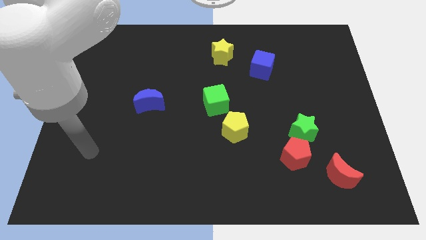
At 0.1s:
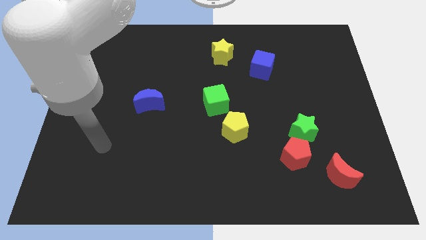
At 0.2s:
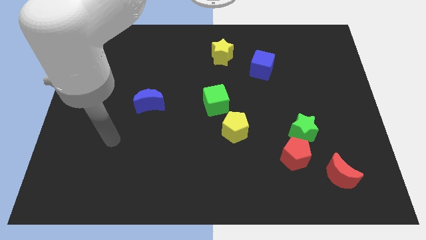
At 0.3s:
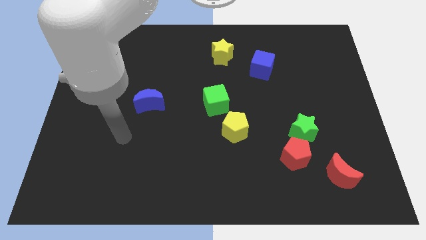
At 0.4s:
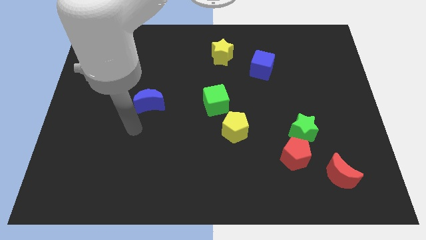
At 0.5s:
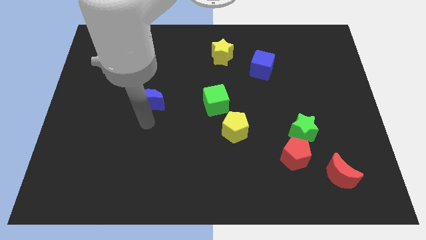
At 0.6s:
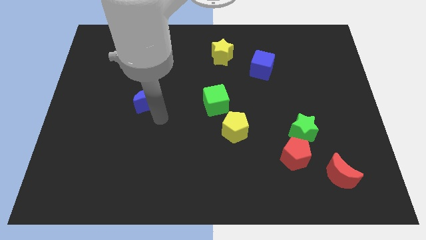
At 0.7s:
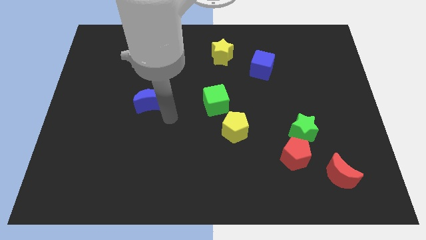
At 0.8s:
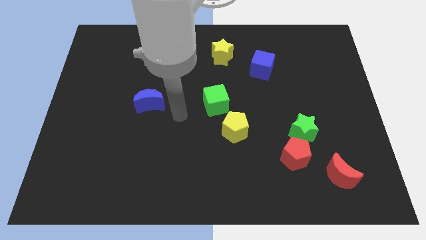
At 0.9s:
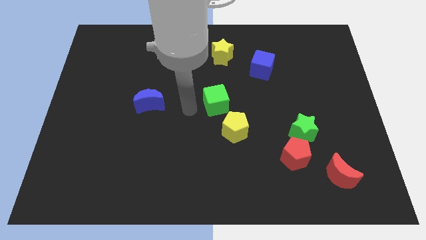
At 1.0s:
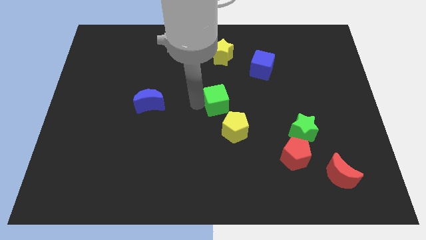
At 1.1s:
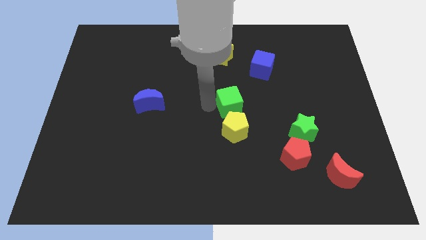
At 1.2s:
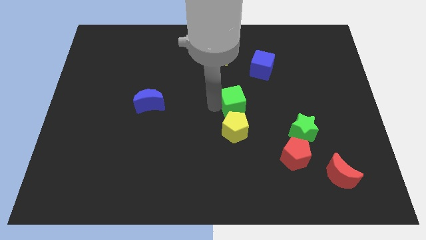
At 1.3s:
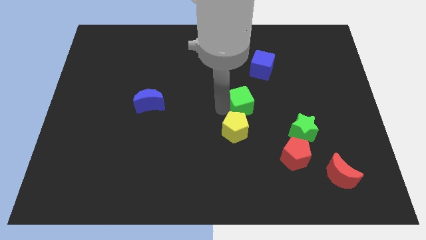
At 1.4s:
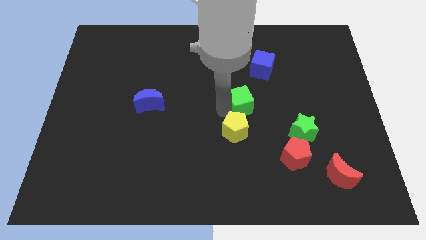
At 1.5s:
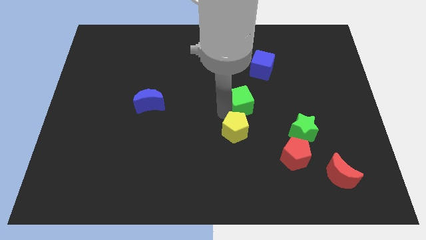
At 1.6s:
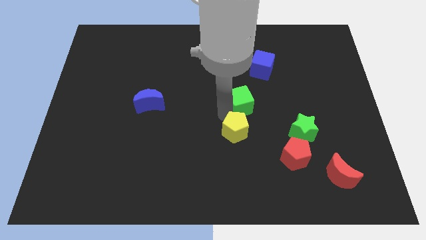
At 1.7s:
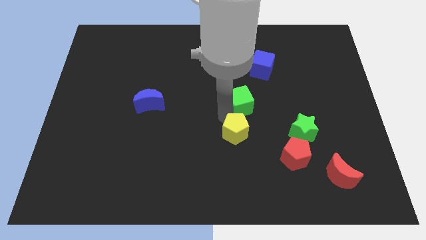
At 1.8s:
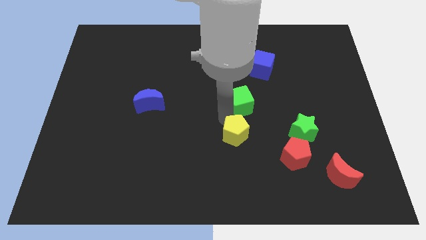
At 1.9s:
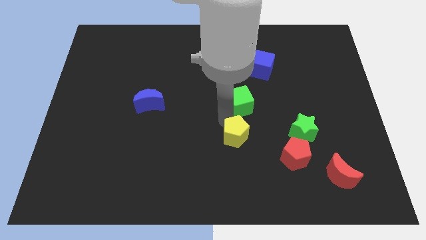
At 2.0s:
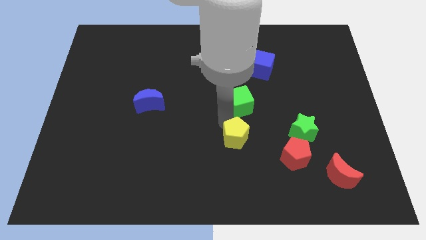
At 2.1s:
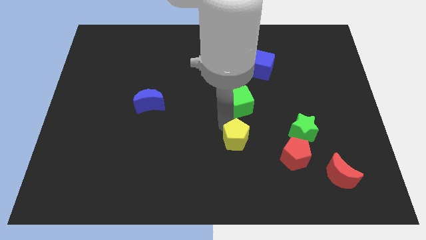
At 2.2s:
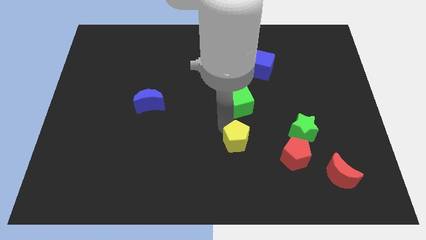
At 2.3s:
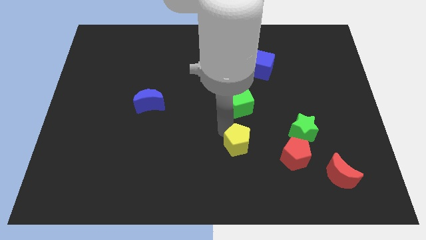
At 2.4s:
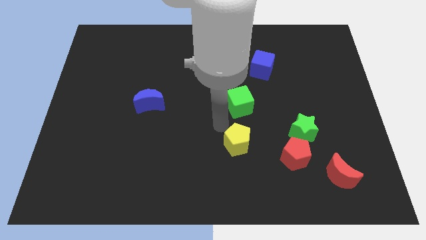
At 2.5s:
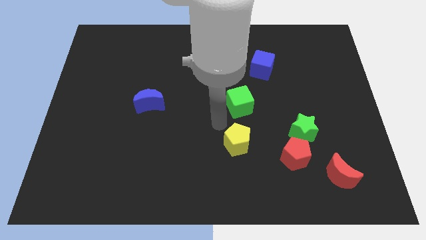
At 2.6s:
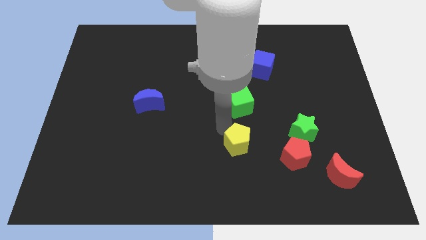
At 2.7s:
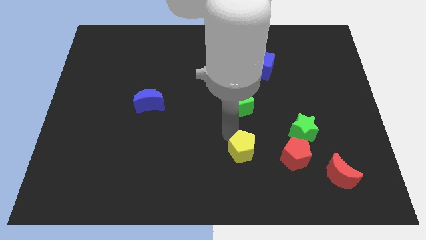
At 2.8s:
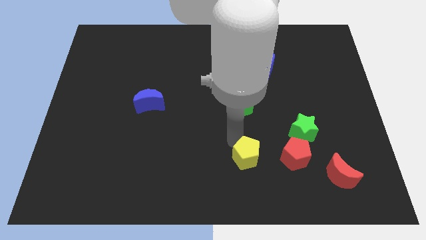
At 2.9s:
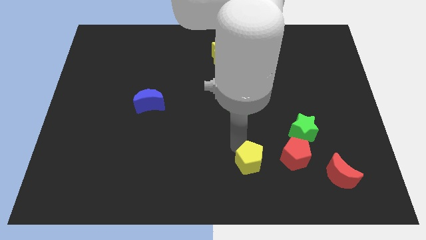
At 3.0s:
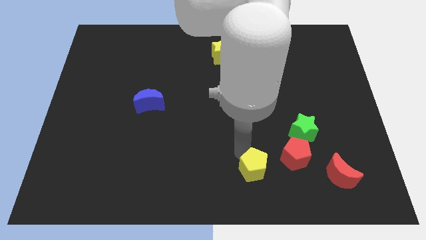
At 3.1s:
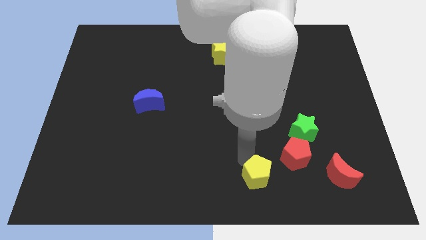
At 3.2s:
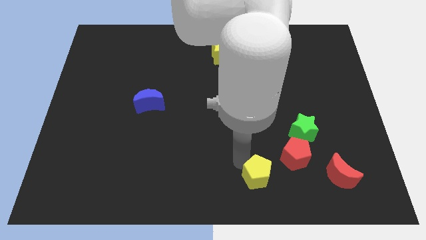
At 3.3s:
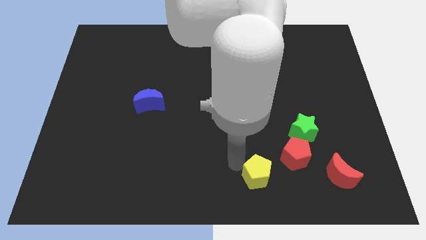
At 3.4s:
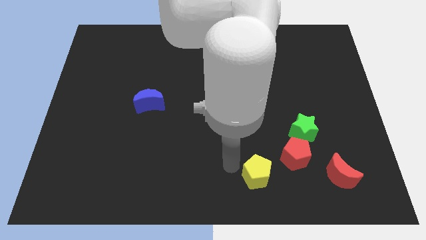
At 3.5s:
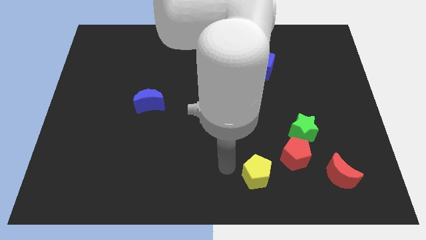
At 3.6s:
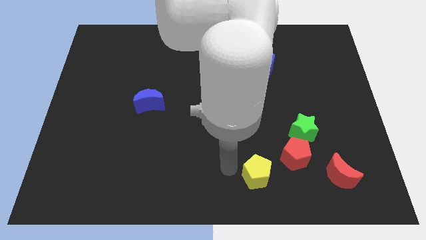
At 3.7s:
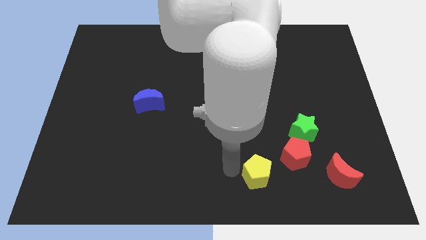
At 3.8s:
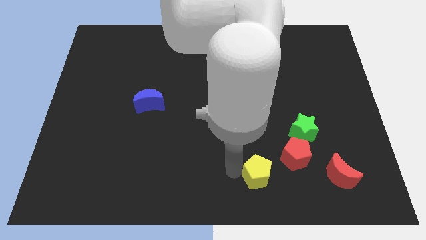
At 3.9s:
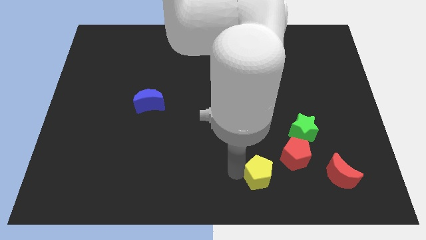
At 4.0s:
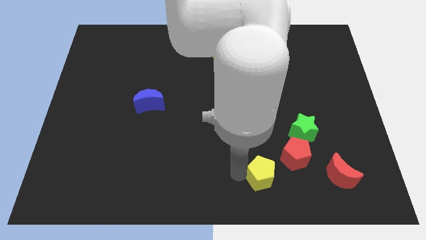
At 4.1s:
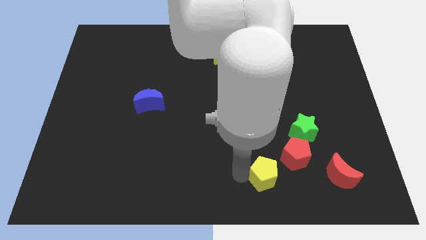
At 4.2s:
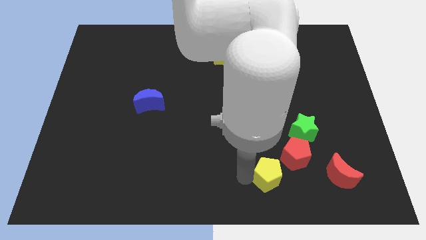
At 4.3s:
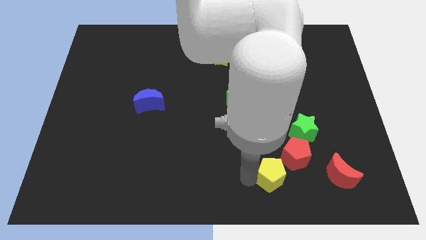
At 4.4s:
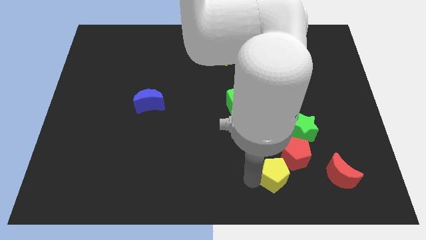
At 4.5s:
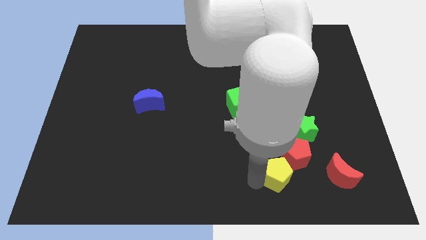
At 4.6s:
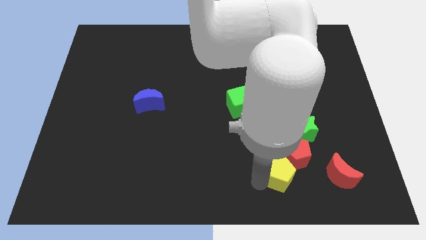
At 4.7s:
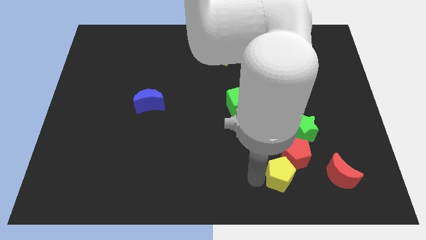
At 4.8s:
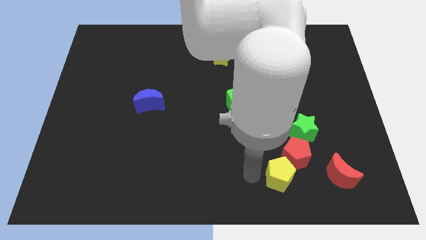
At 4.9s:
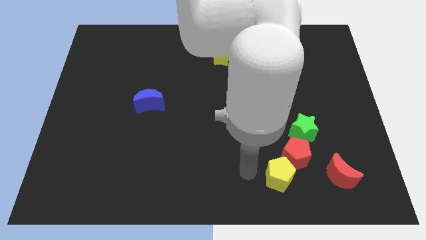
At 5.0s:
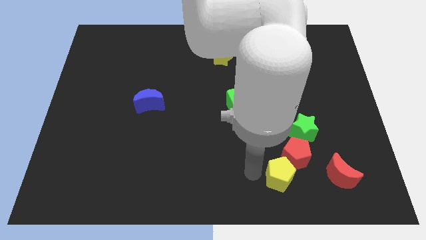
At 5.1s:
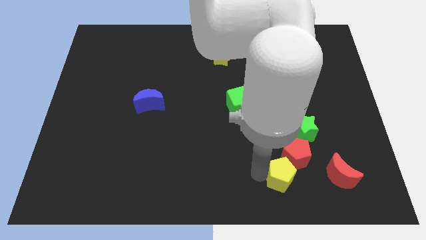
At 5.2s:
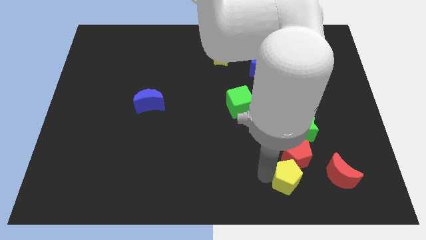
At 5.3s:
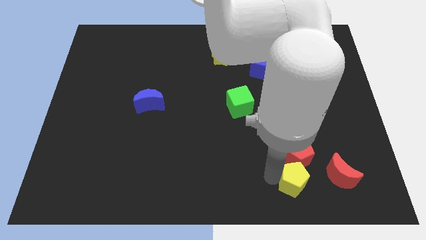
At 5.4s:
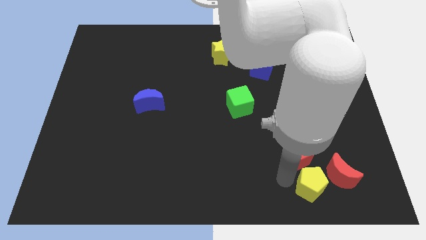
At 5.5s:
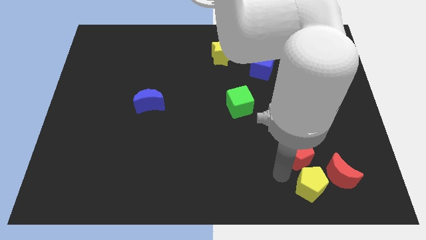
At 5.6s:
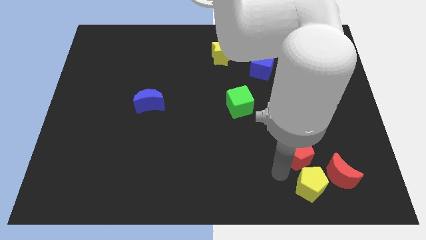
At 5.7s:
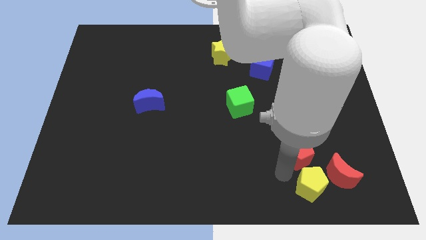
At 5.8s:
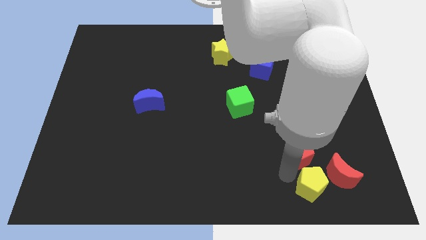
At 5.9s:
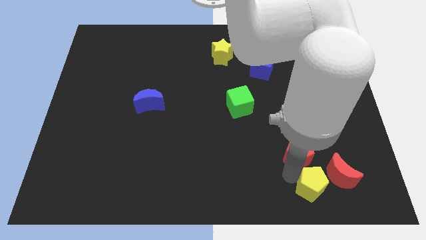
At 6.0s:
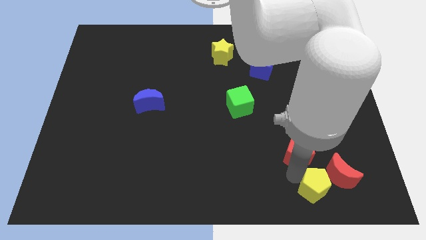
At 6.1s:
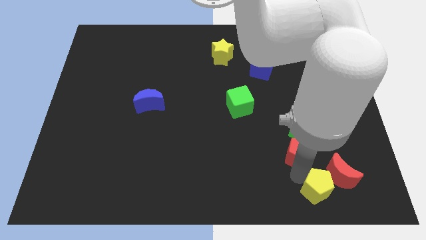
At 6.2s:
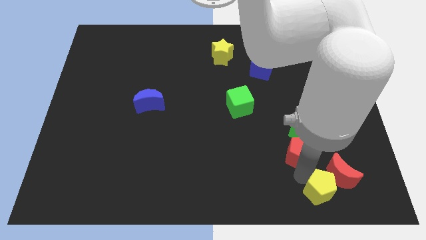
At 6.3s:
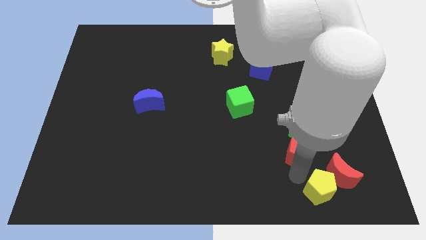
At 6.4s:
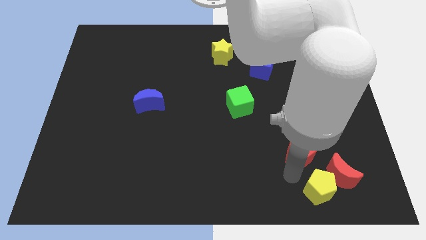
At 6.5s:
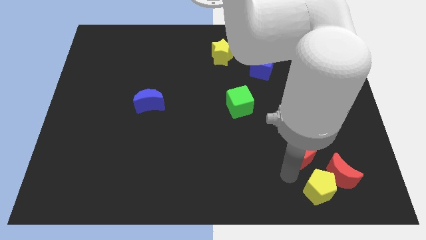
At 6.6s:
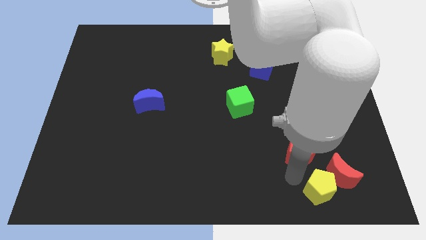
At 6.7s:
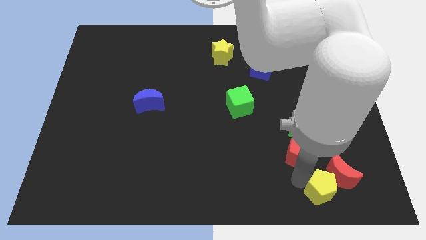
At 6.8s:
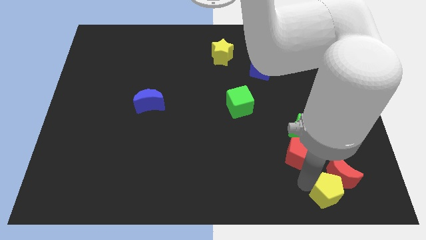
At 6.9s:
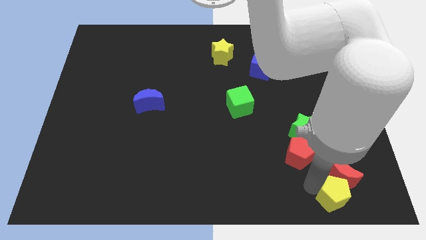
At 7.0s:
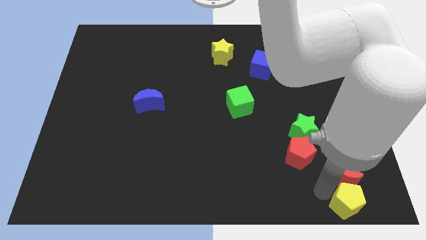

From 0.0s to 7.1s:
put the yellow pentagon to the bottom right corner
